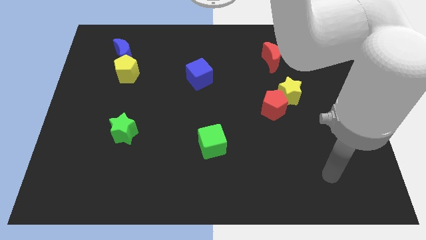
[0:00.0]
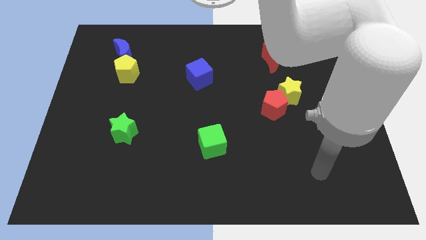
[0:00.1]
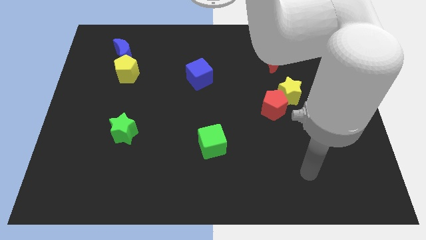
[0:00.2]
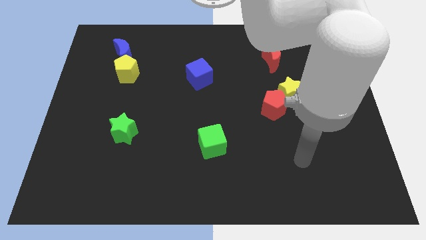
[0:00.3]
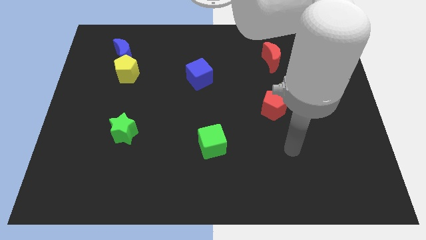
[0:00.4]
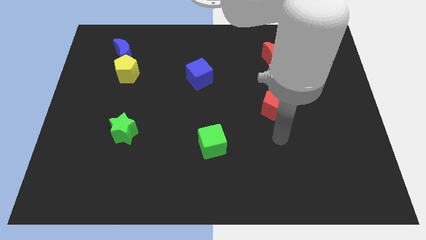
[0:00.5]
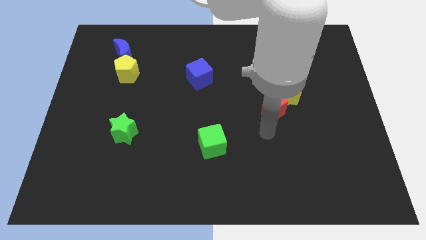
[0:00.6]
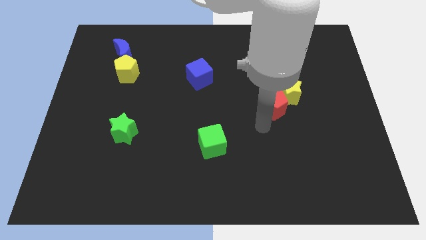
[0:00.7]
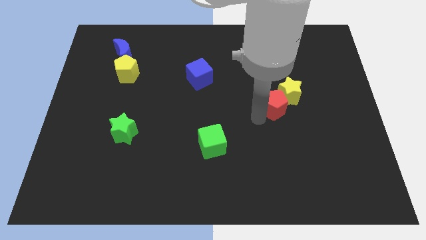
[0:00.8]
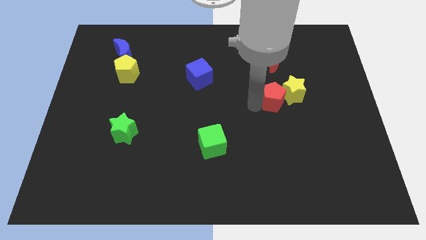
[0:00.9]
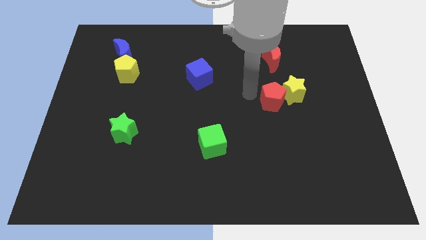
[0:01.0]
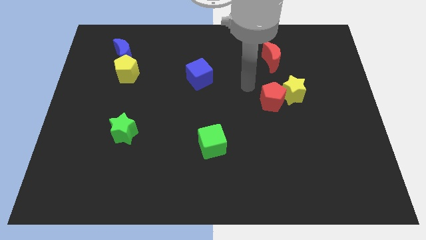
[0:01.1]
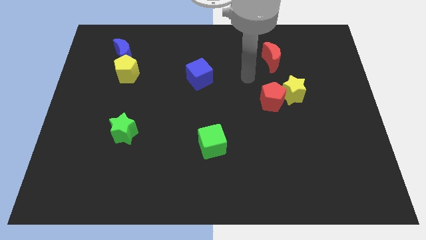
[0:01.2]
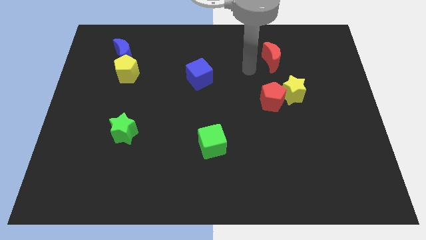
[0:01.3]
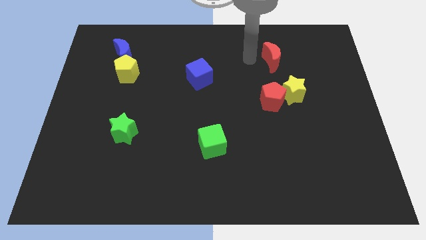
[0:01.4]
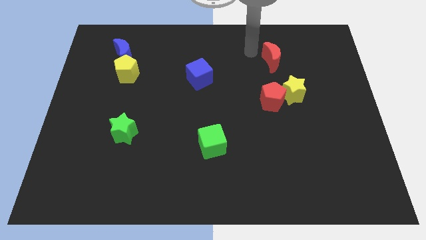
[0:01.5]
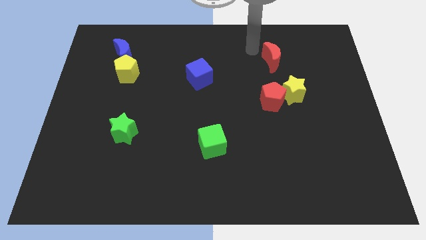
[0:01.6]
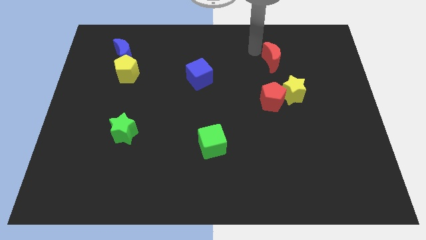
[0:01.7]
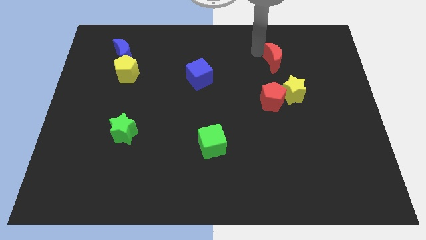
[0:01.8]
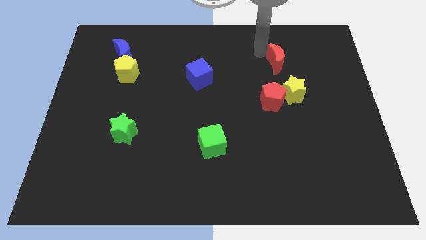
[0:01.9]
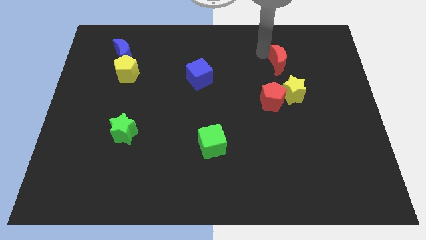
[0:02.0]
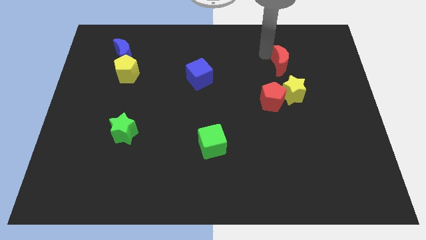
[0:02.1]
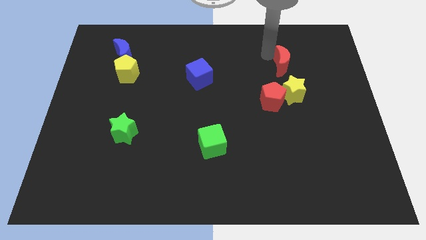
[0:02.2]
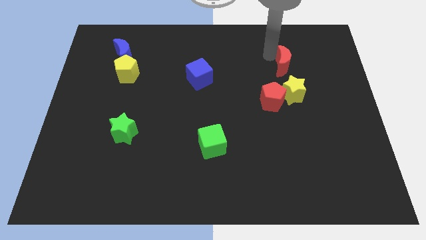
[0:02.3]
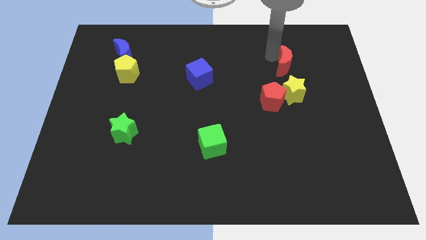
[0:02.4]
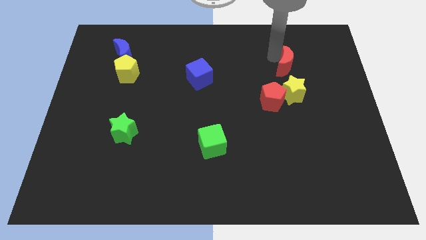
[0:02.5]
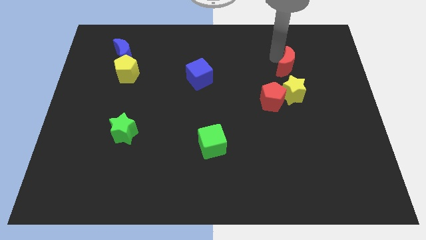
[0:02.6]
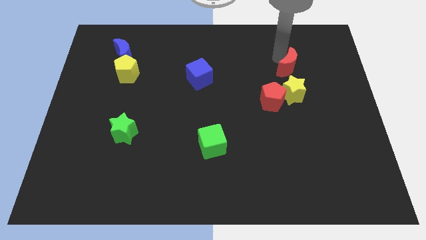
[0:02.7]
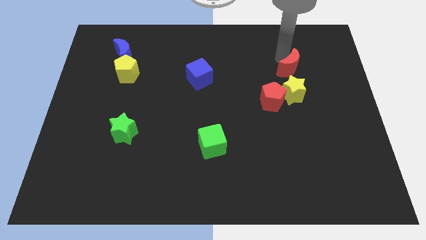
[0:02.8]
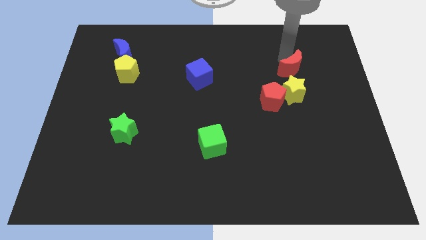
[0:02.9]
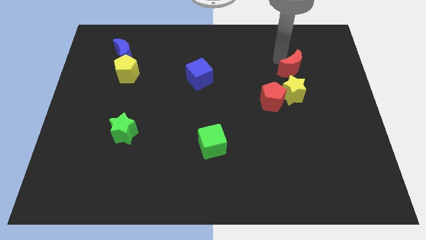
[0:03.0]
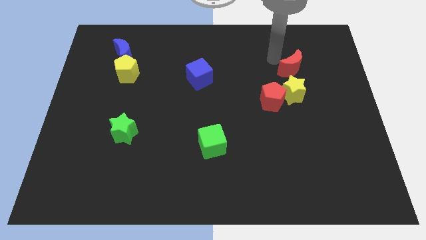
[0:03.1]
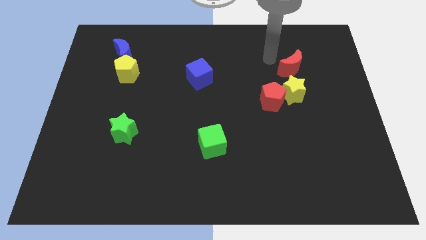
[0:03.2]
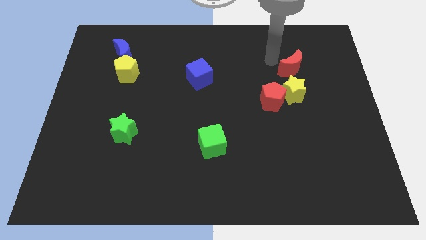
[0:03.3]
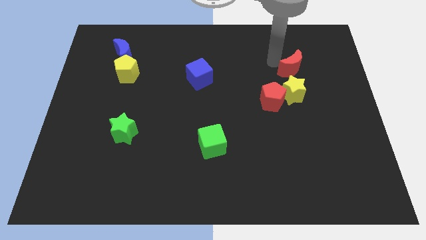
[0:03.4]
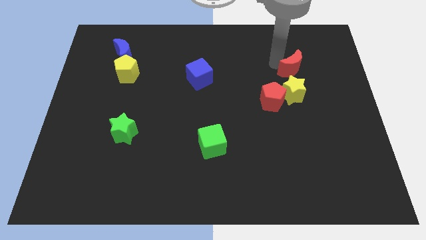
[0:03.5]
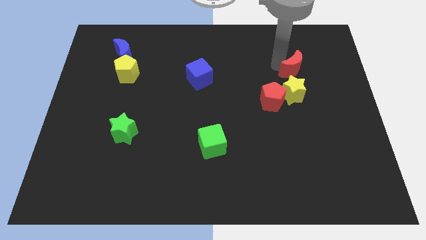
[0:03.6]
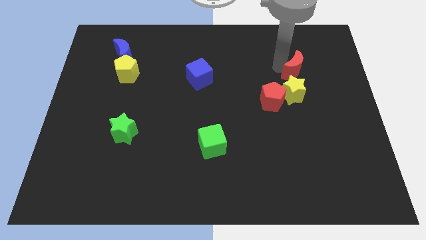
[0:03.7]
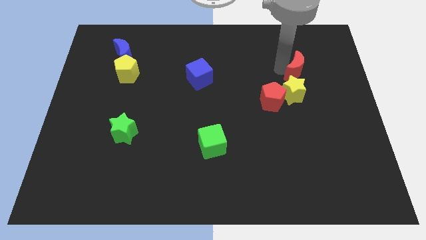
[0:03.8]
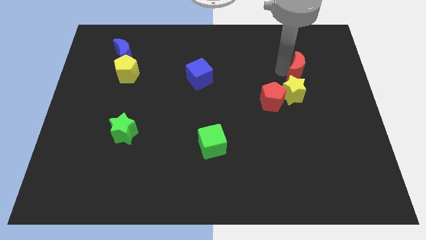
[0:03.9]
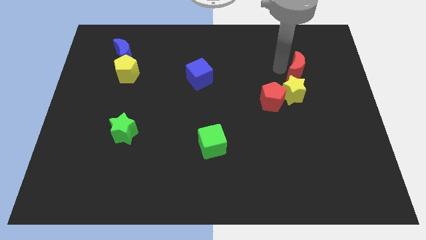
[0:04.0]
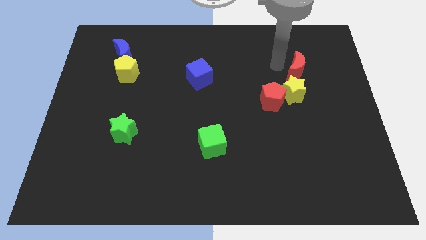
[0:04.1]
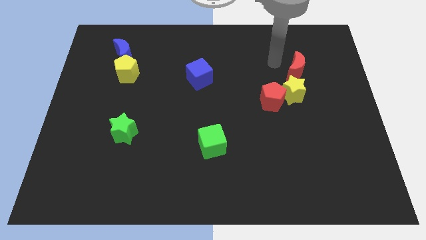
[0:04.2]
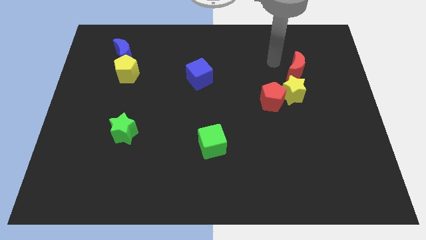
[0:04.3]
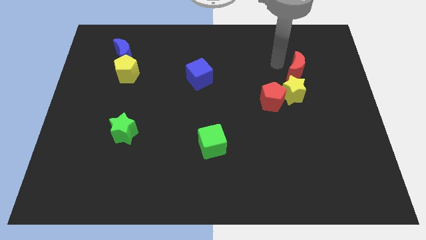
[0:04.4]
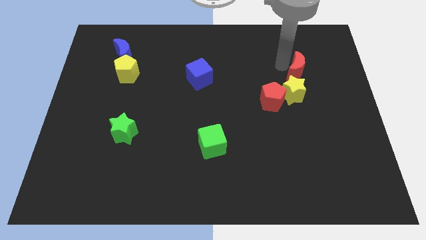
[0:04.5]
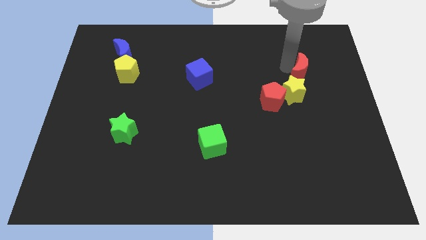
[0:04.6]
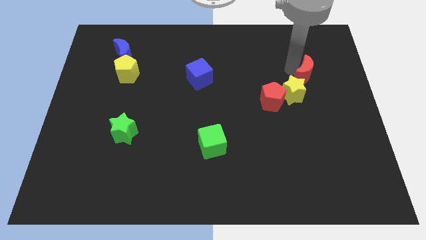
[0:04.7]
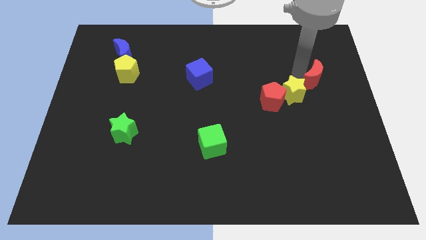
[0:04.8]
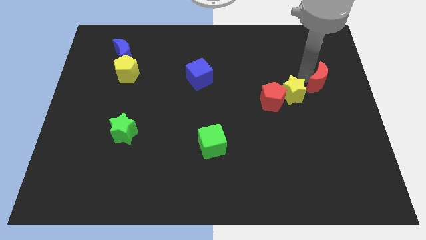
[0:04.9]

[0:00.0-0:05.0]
push the red moon to the right side of the board

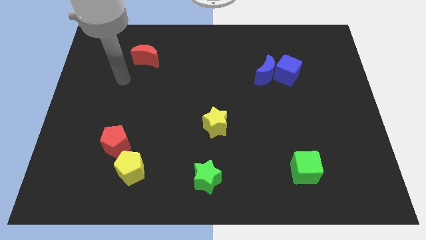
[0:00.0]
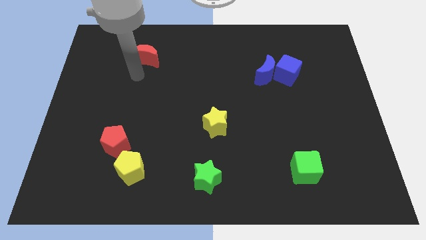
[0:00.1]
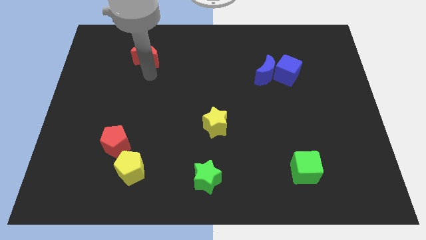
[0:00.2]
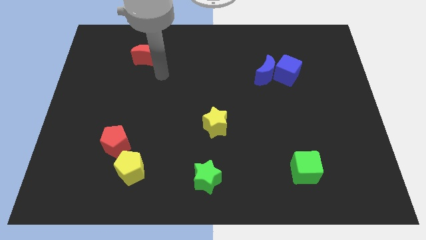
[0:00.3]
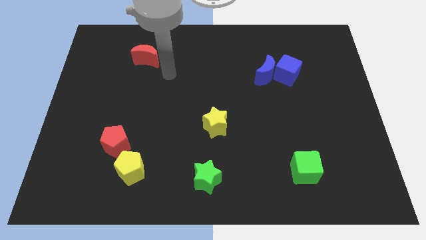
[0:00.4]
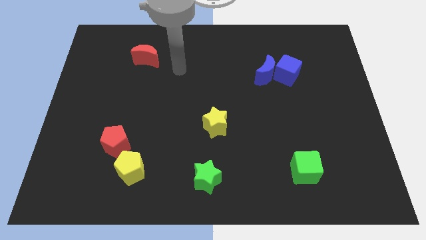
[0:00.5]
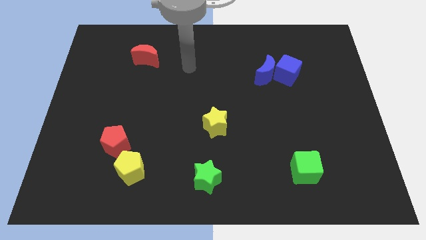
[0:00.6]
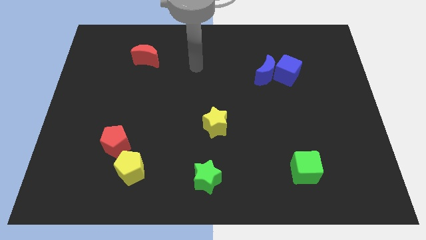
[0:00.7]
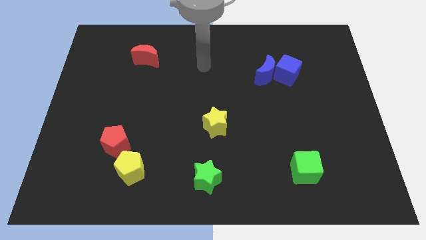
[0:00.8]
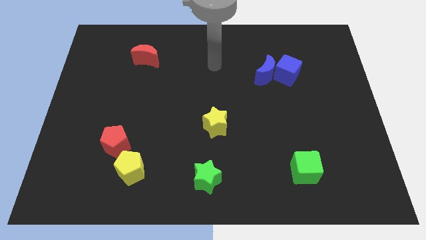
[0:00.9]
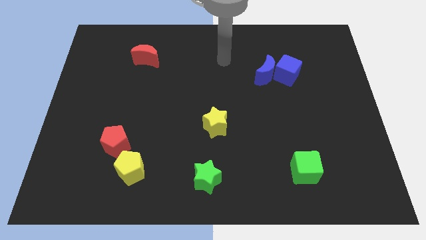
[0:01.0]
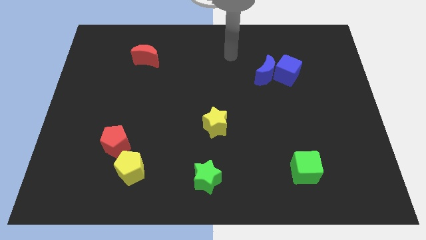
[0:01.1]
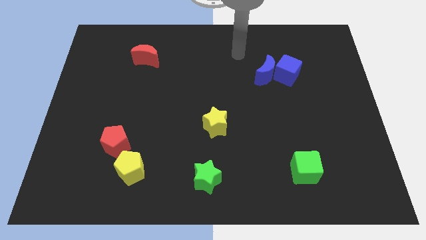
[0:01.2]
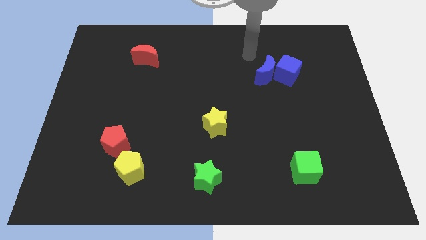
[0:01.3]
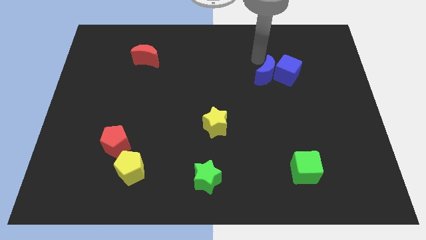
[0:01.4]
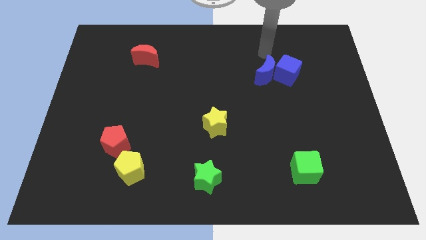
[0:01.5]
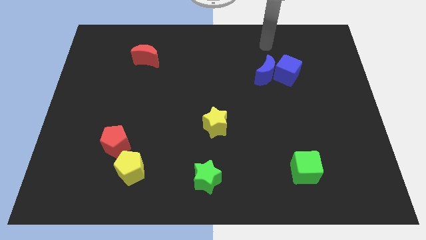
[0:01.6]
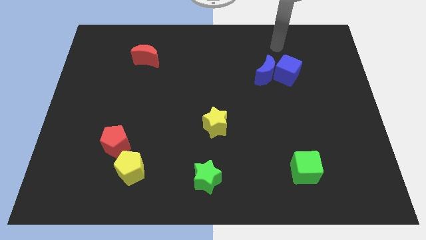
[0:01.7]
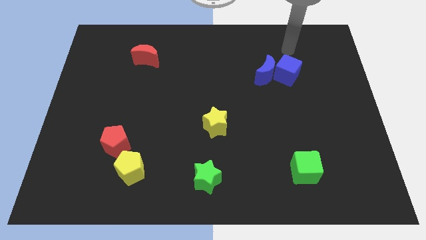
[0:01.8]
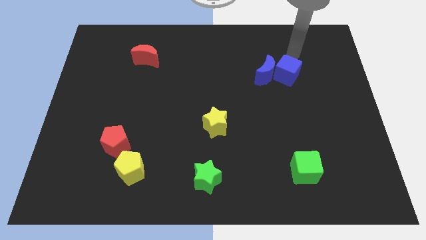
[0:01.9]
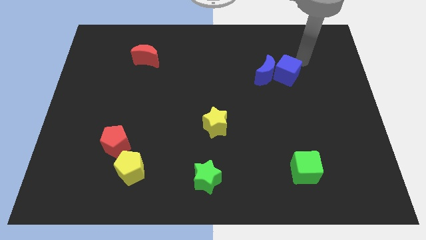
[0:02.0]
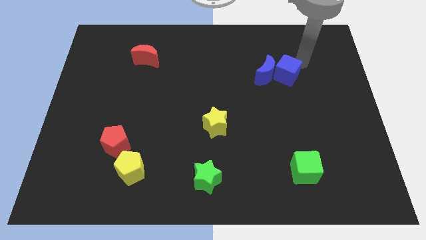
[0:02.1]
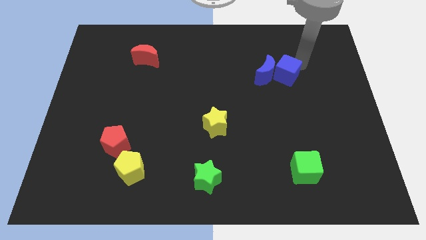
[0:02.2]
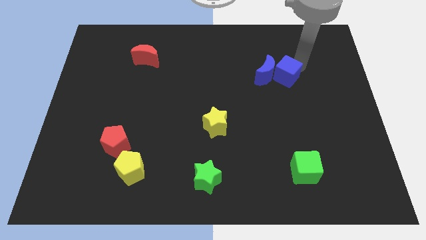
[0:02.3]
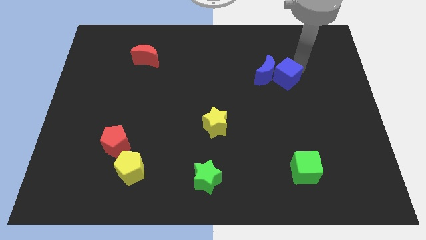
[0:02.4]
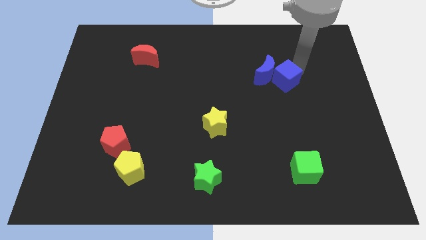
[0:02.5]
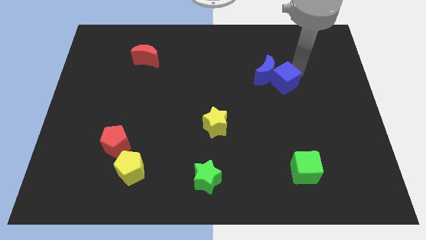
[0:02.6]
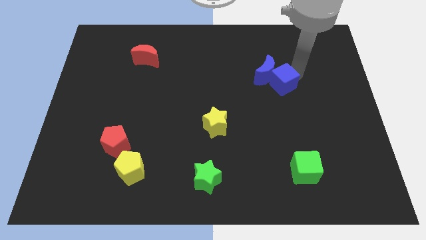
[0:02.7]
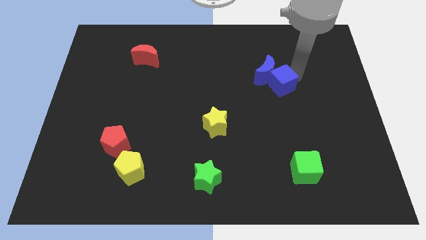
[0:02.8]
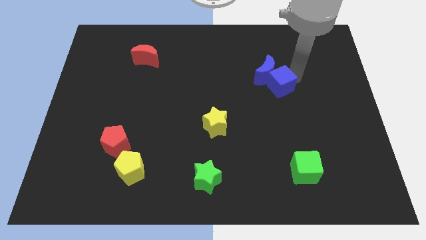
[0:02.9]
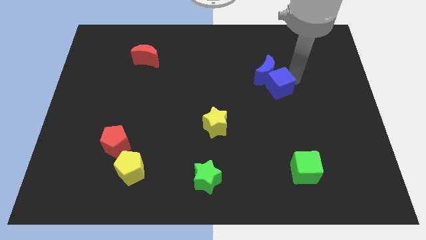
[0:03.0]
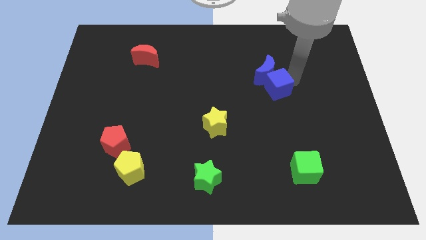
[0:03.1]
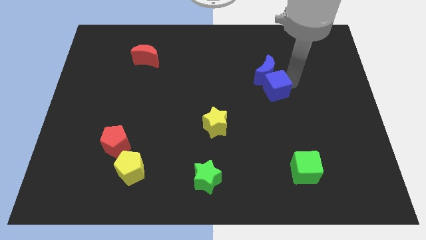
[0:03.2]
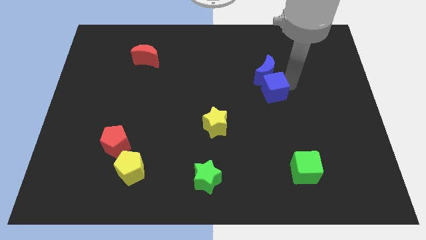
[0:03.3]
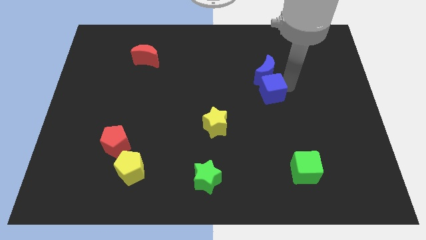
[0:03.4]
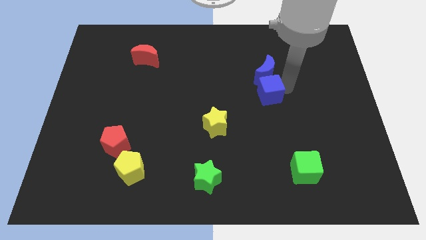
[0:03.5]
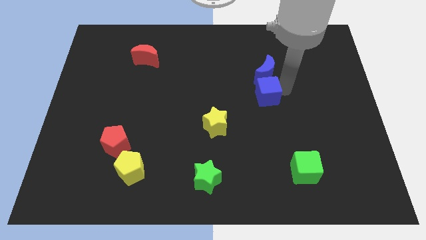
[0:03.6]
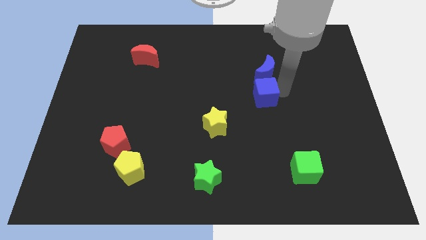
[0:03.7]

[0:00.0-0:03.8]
slide the blue cube to the center
